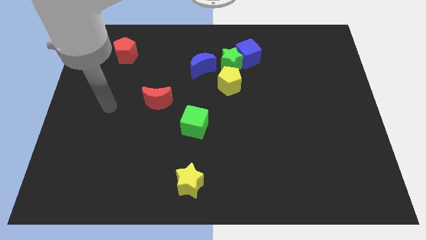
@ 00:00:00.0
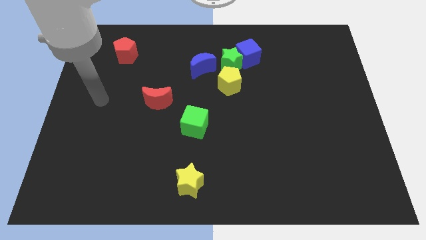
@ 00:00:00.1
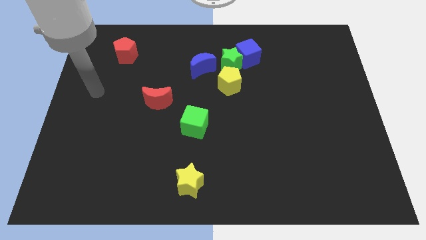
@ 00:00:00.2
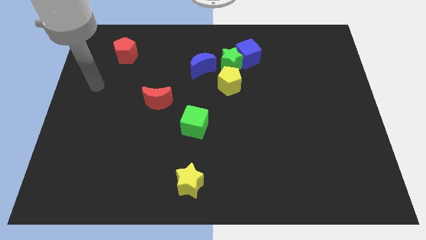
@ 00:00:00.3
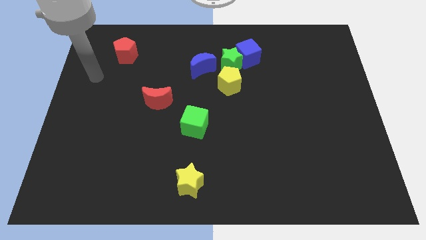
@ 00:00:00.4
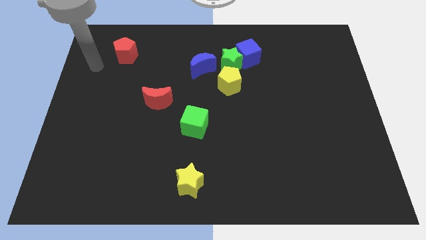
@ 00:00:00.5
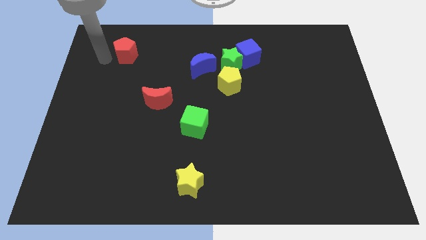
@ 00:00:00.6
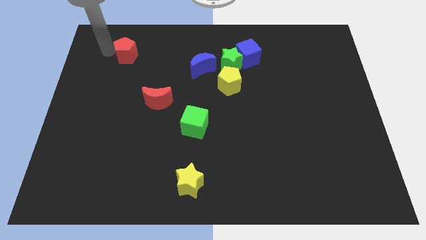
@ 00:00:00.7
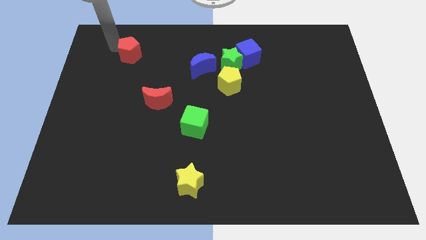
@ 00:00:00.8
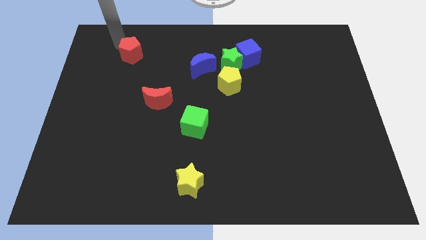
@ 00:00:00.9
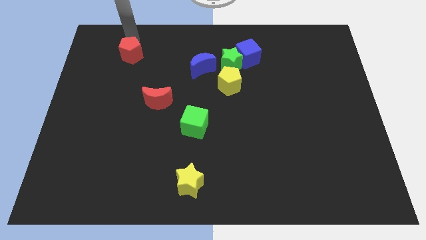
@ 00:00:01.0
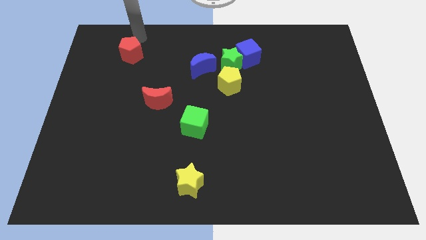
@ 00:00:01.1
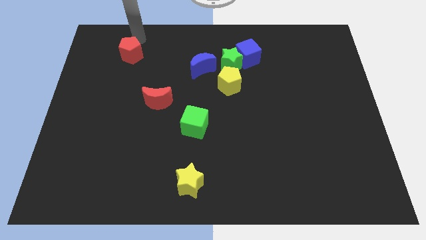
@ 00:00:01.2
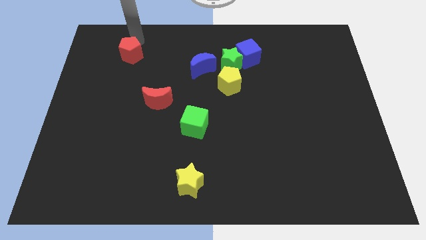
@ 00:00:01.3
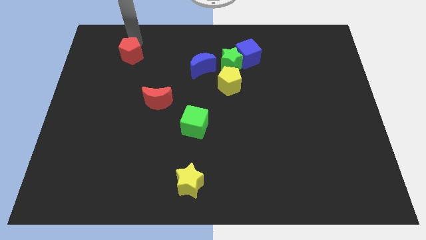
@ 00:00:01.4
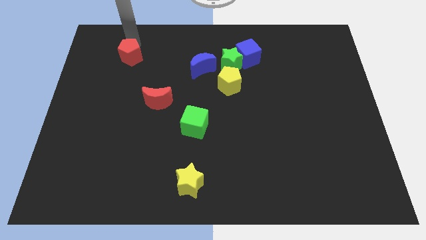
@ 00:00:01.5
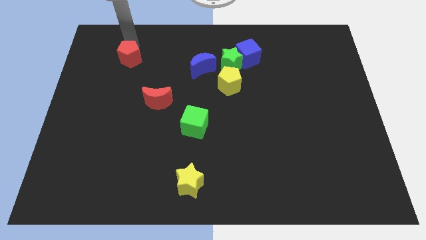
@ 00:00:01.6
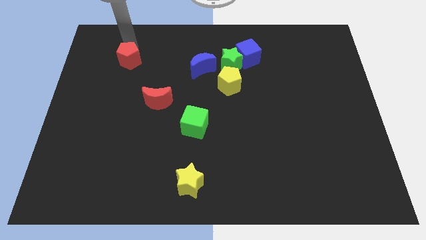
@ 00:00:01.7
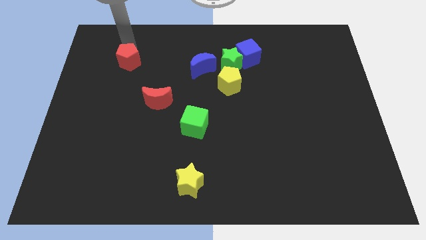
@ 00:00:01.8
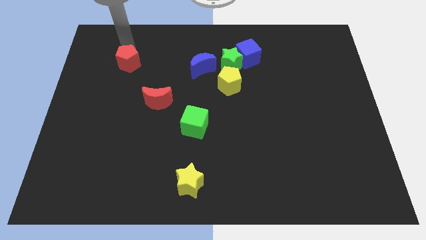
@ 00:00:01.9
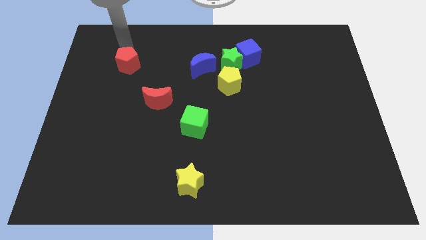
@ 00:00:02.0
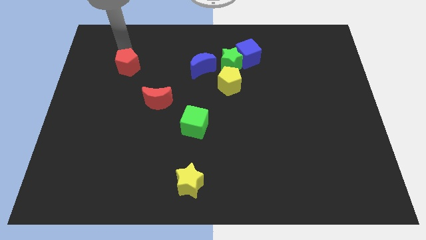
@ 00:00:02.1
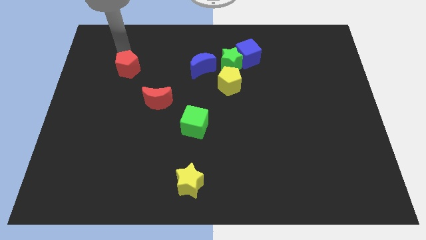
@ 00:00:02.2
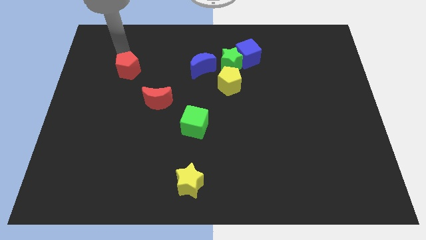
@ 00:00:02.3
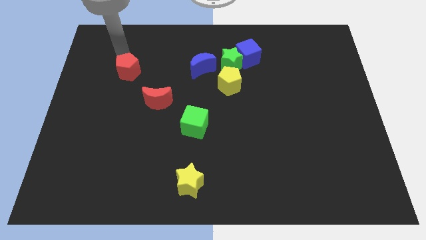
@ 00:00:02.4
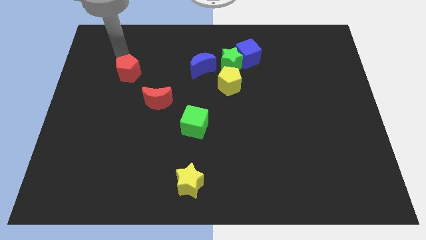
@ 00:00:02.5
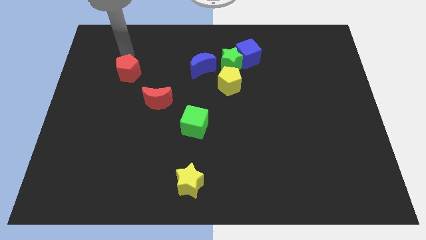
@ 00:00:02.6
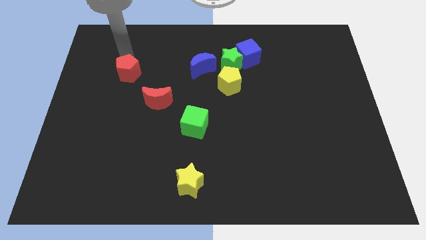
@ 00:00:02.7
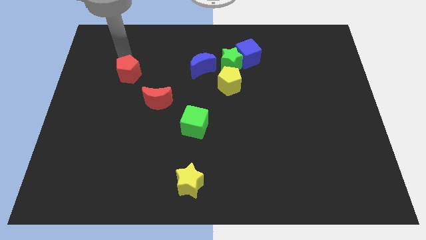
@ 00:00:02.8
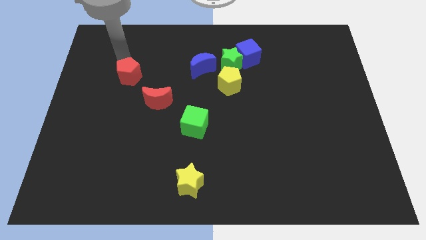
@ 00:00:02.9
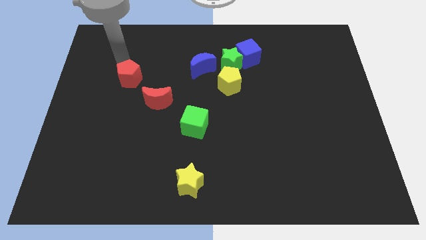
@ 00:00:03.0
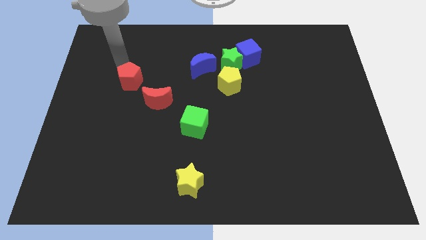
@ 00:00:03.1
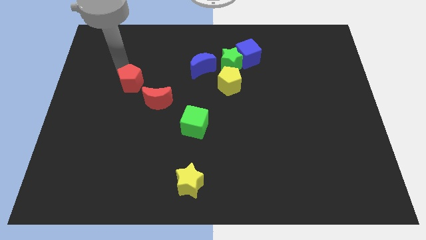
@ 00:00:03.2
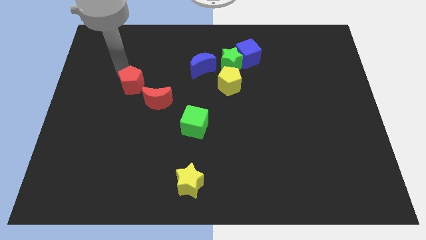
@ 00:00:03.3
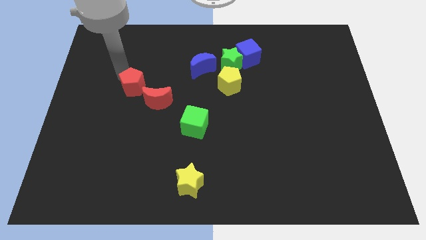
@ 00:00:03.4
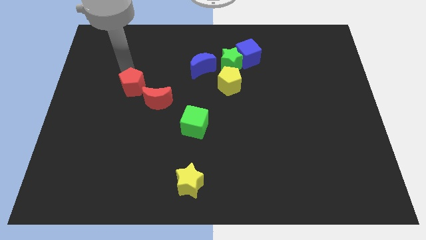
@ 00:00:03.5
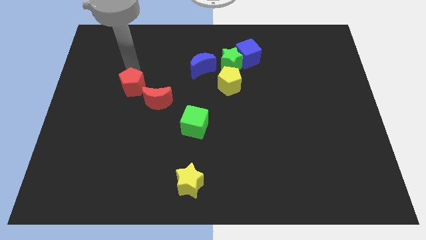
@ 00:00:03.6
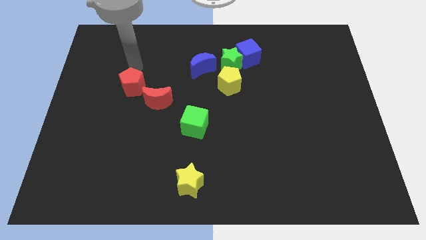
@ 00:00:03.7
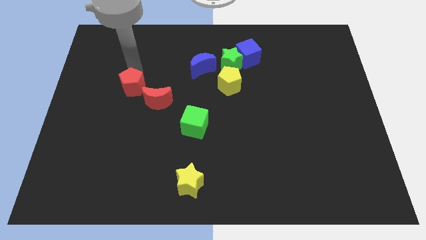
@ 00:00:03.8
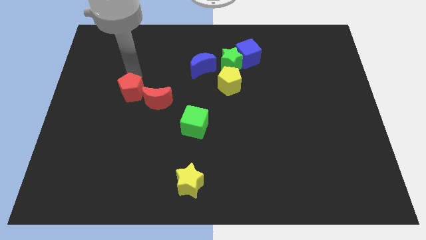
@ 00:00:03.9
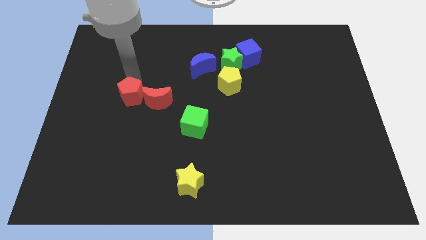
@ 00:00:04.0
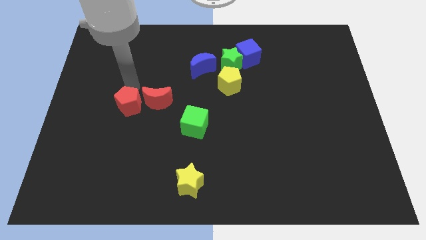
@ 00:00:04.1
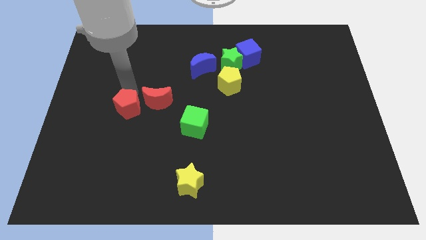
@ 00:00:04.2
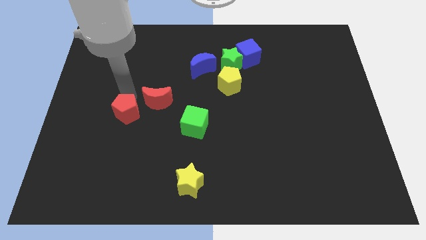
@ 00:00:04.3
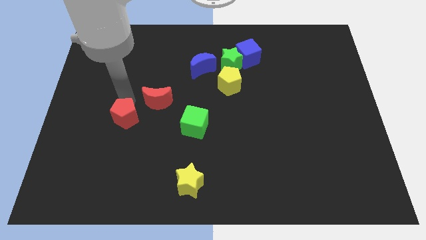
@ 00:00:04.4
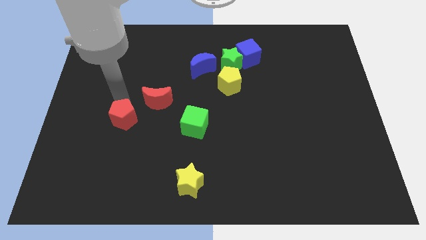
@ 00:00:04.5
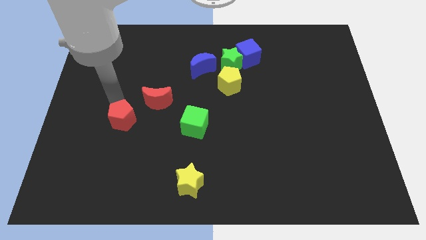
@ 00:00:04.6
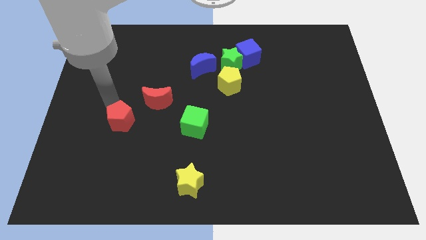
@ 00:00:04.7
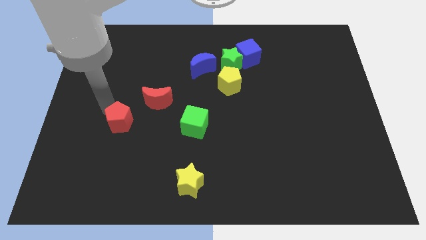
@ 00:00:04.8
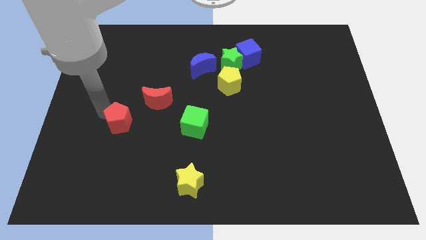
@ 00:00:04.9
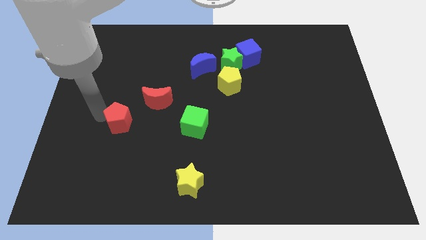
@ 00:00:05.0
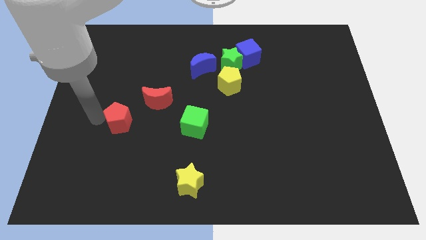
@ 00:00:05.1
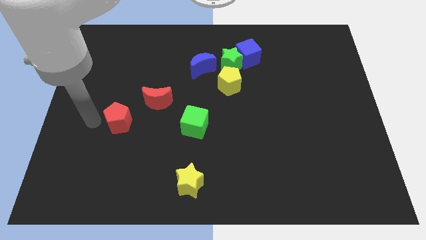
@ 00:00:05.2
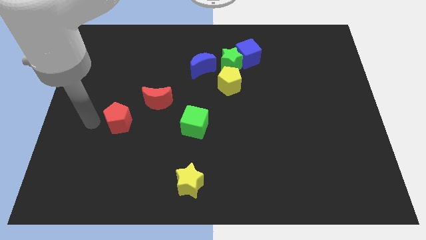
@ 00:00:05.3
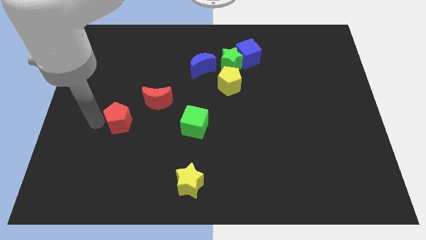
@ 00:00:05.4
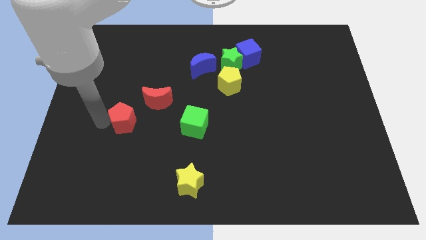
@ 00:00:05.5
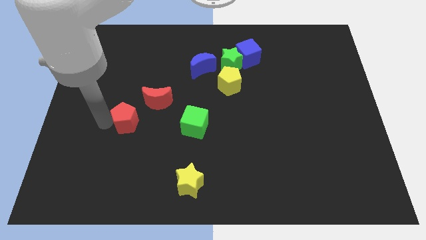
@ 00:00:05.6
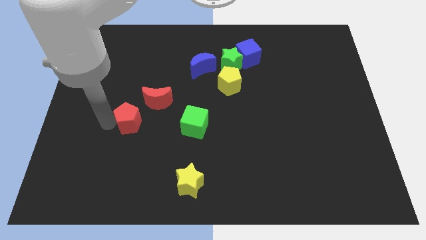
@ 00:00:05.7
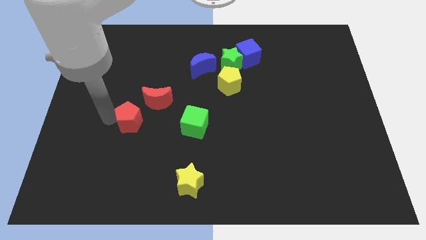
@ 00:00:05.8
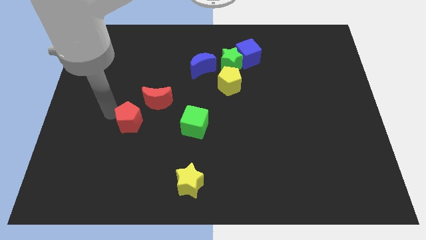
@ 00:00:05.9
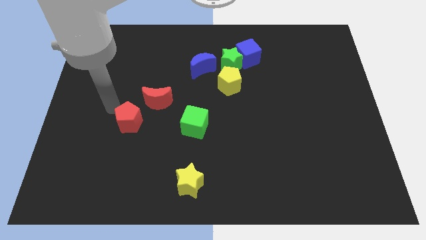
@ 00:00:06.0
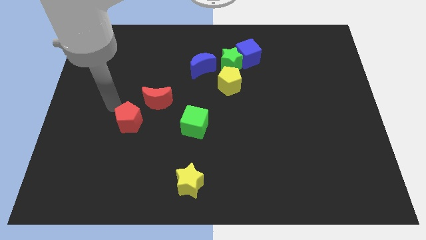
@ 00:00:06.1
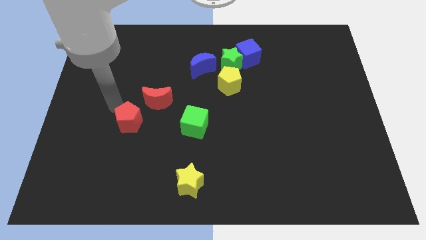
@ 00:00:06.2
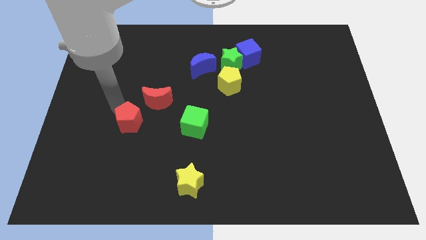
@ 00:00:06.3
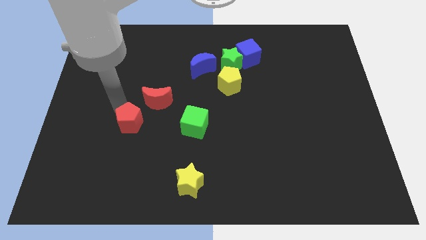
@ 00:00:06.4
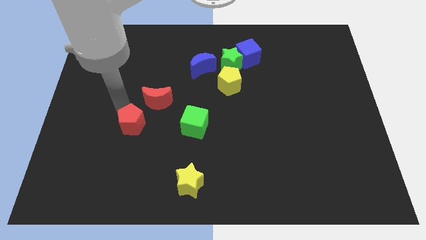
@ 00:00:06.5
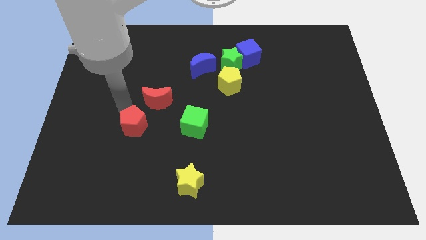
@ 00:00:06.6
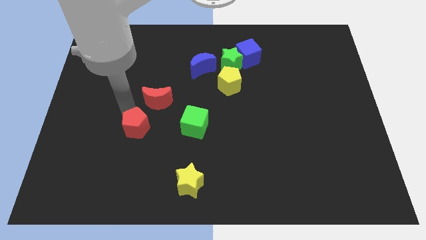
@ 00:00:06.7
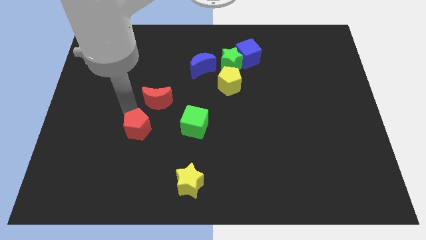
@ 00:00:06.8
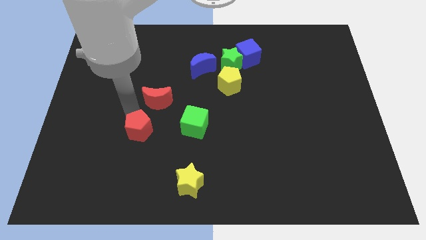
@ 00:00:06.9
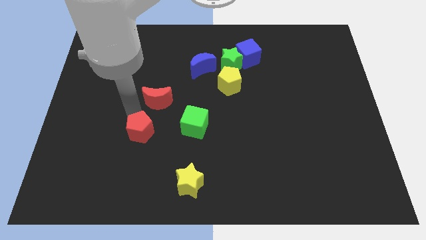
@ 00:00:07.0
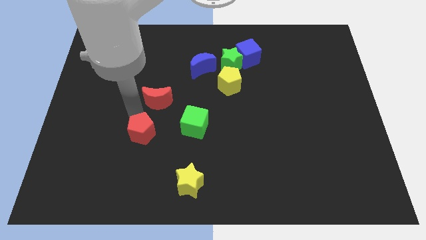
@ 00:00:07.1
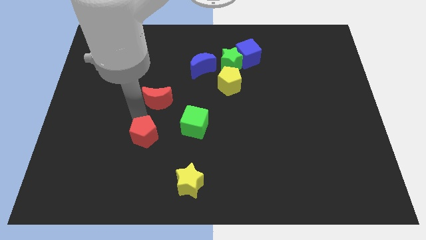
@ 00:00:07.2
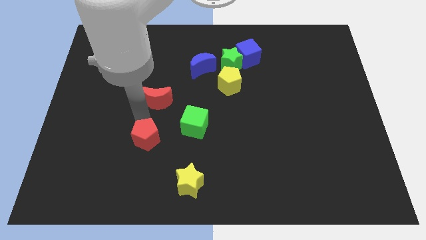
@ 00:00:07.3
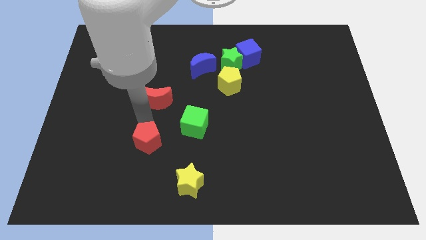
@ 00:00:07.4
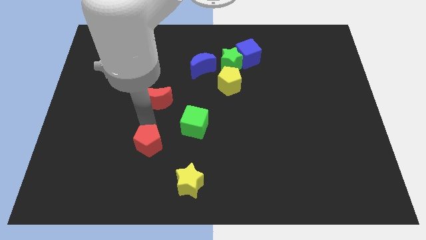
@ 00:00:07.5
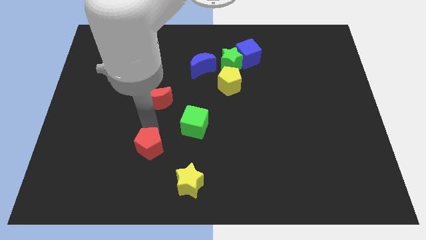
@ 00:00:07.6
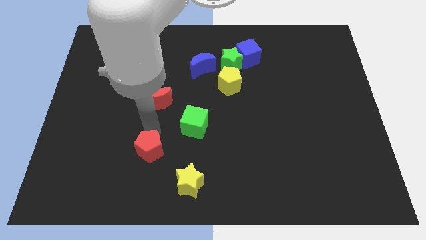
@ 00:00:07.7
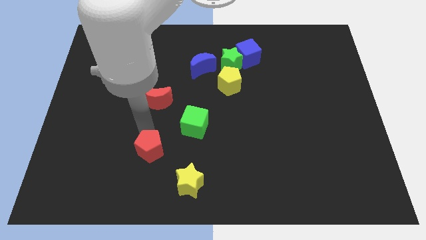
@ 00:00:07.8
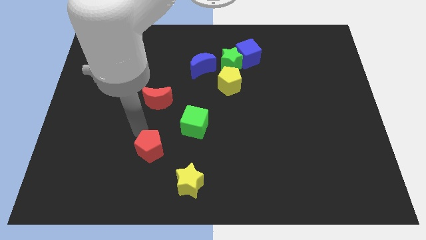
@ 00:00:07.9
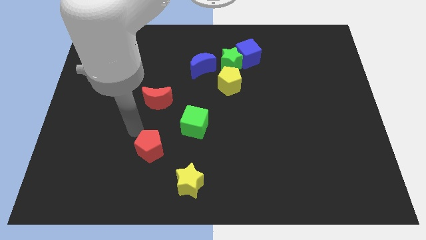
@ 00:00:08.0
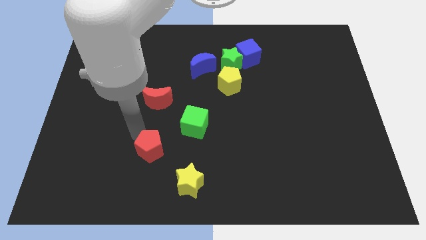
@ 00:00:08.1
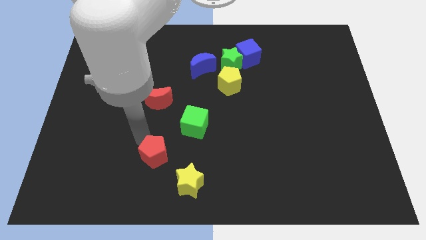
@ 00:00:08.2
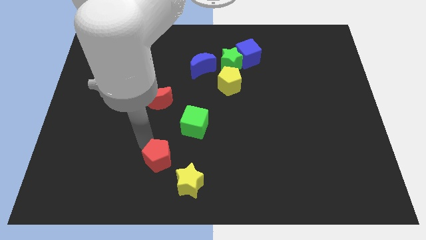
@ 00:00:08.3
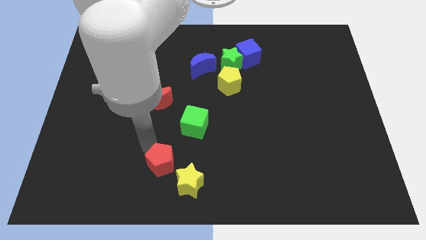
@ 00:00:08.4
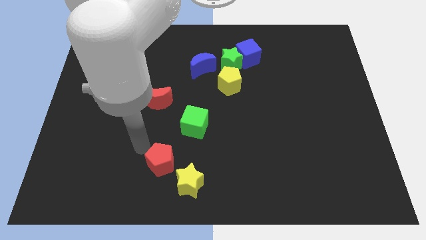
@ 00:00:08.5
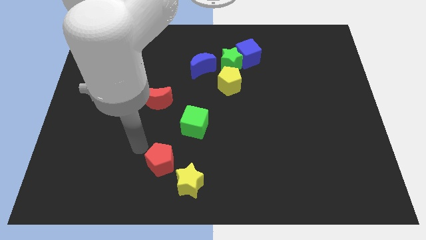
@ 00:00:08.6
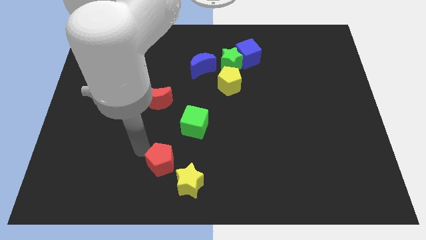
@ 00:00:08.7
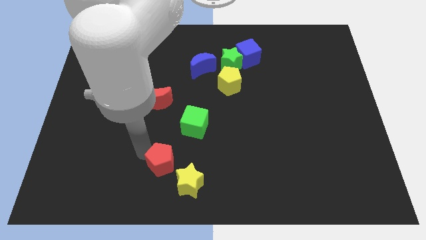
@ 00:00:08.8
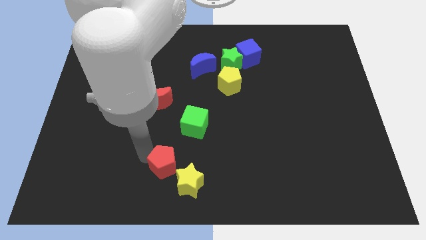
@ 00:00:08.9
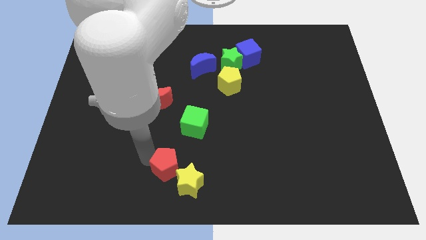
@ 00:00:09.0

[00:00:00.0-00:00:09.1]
put the red pentagon to the yellow star
